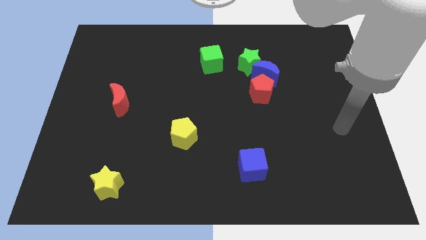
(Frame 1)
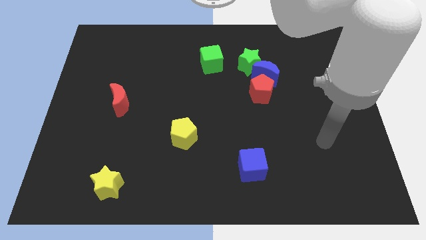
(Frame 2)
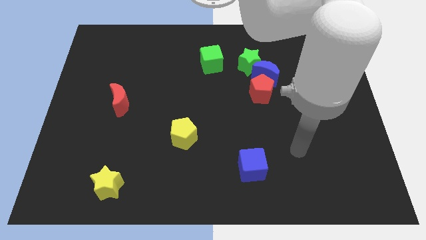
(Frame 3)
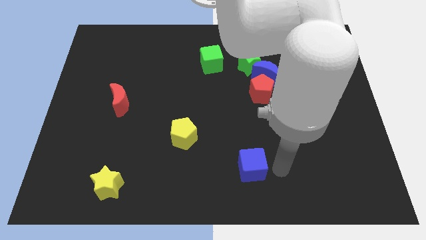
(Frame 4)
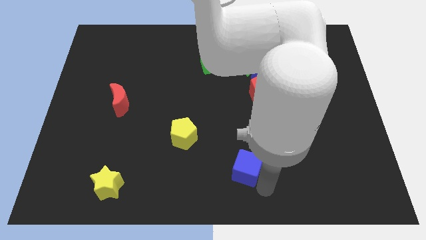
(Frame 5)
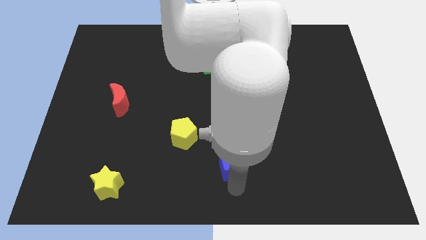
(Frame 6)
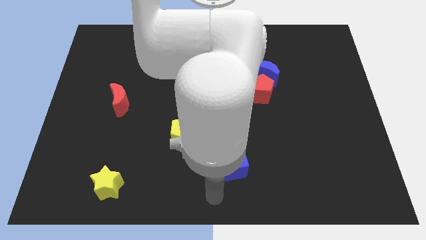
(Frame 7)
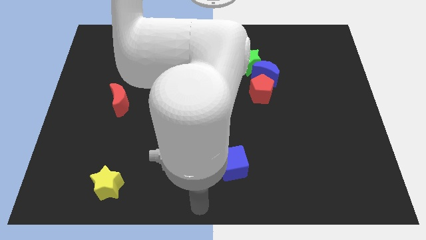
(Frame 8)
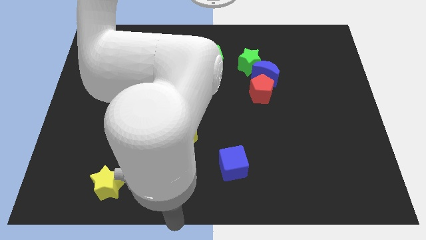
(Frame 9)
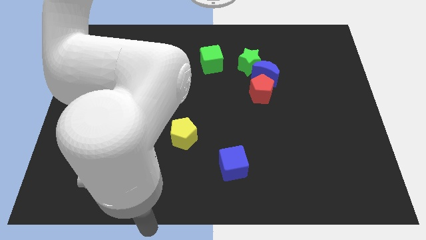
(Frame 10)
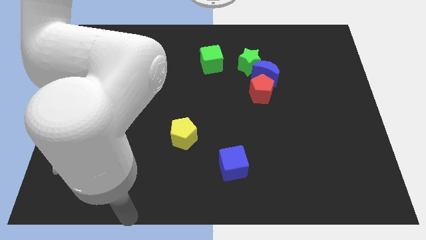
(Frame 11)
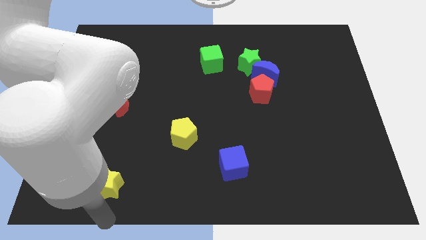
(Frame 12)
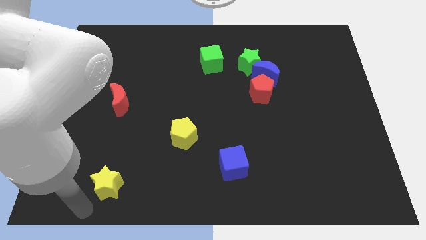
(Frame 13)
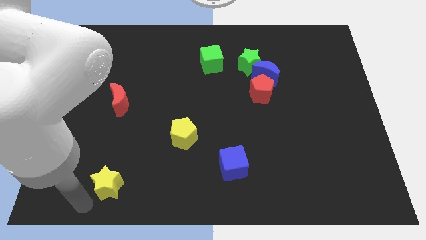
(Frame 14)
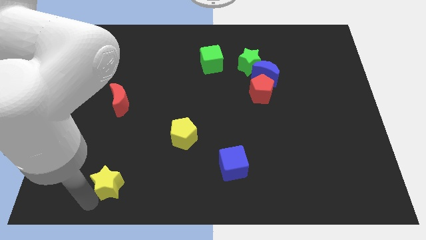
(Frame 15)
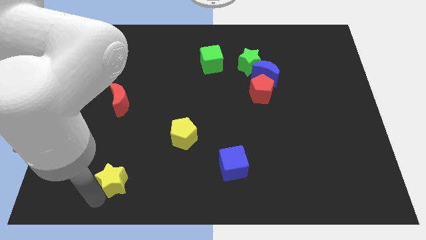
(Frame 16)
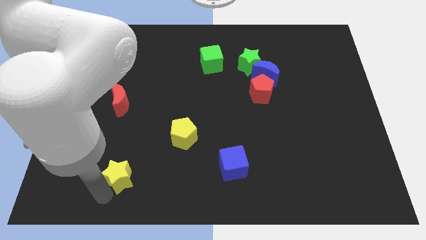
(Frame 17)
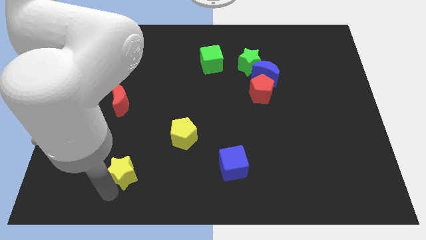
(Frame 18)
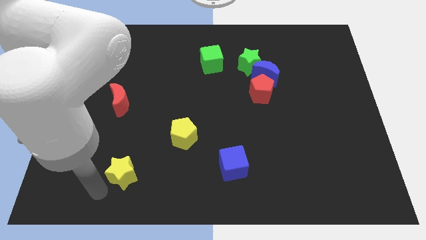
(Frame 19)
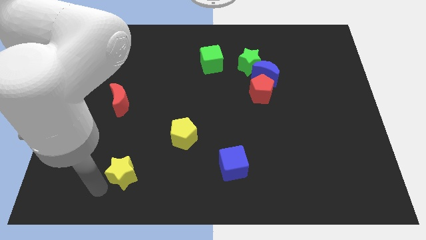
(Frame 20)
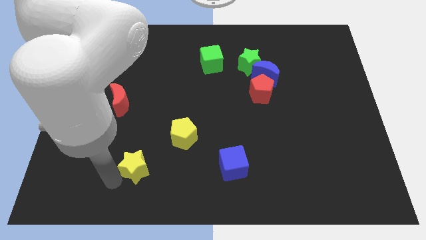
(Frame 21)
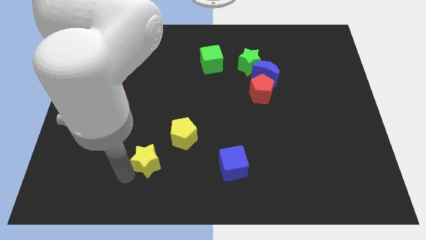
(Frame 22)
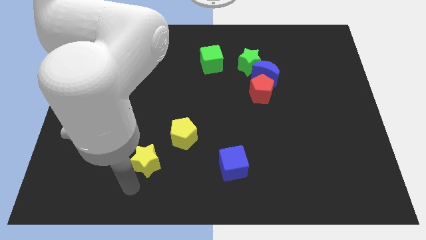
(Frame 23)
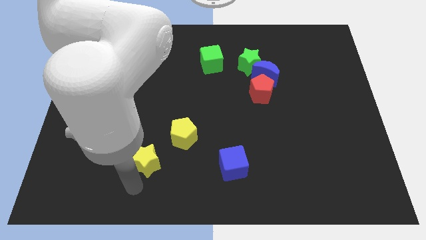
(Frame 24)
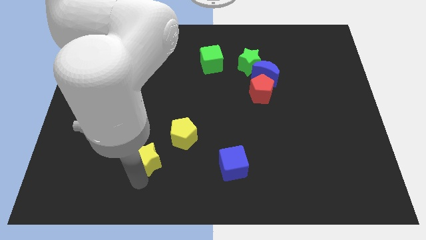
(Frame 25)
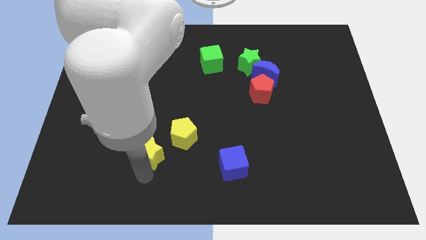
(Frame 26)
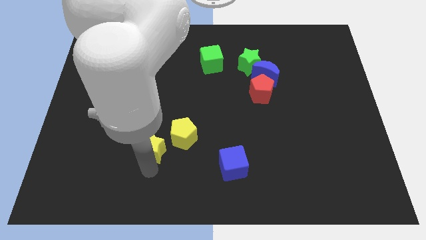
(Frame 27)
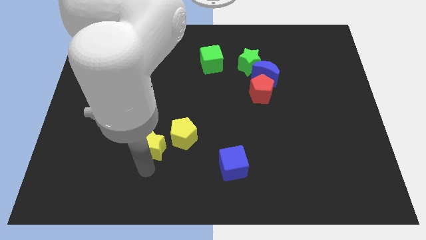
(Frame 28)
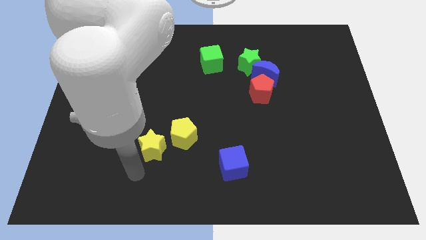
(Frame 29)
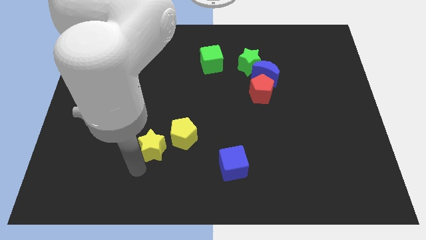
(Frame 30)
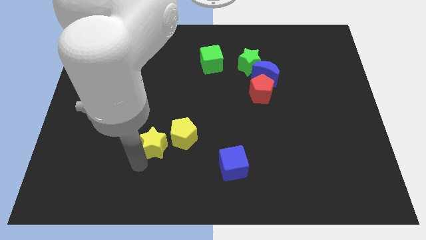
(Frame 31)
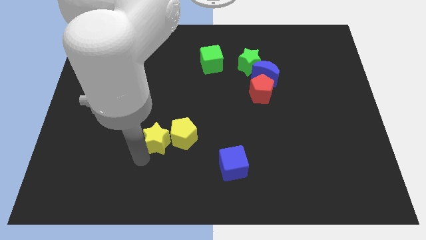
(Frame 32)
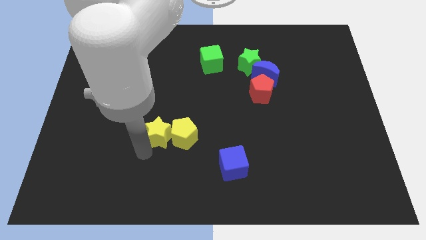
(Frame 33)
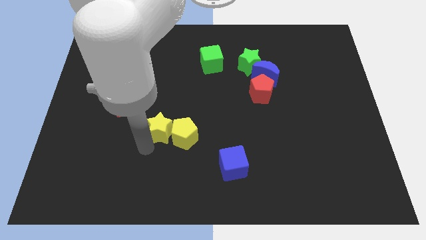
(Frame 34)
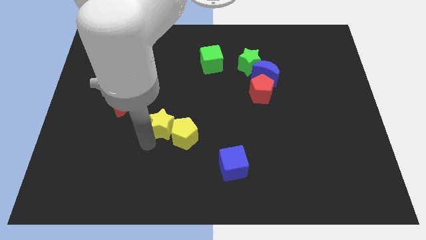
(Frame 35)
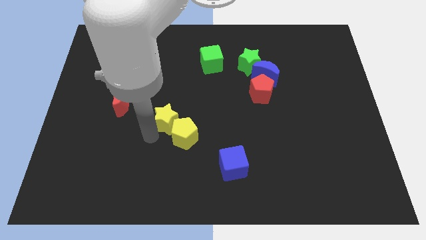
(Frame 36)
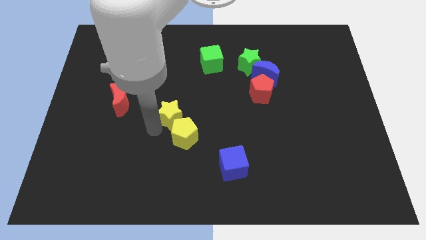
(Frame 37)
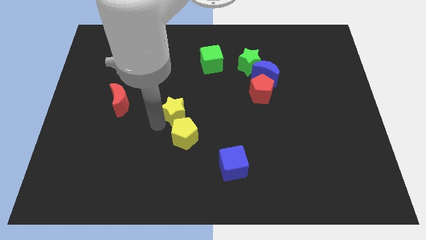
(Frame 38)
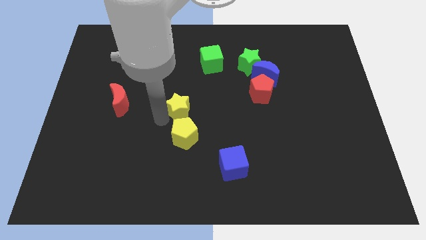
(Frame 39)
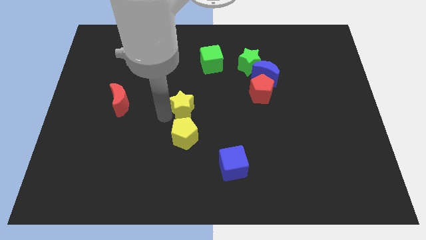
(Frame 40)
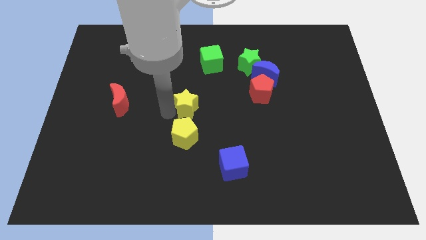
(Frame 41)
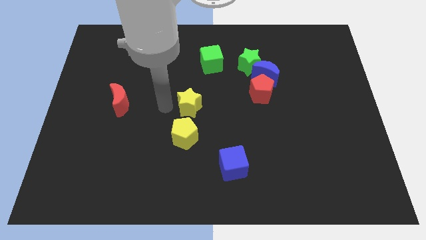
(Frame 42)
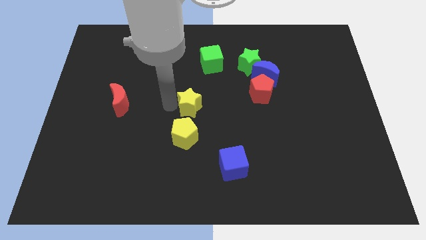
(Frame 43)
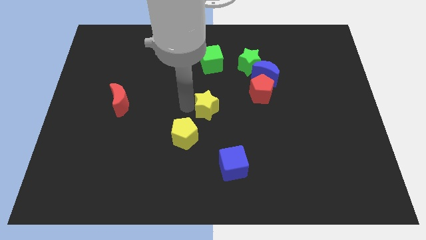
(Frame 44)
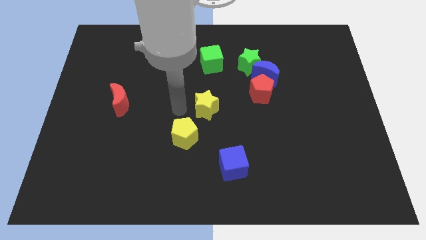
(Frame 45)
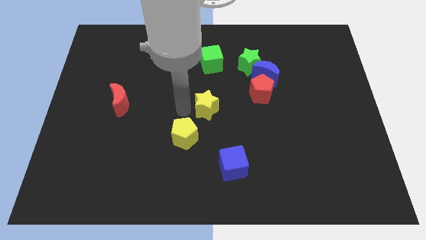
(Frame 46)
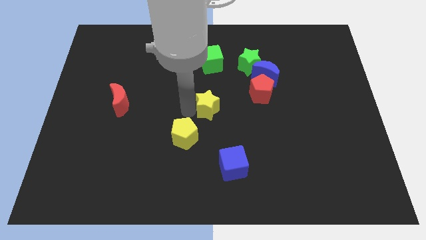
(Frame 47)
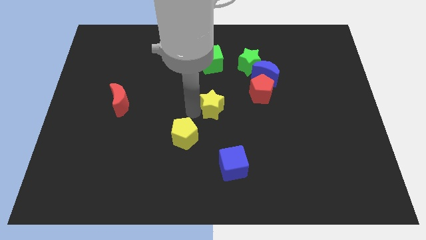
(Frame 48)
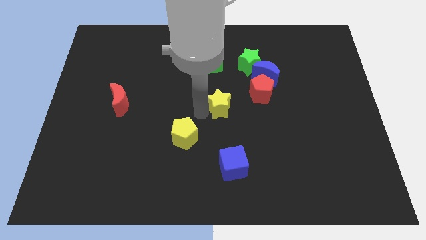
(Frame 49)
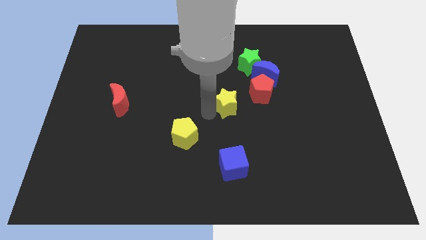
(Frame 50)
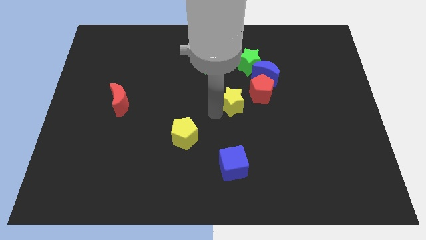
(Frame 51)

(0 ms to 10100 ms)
push the yellow star to the bottom left of the blue moon

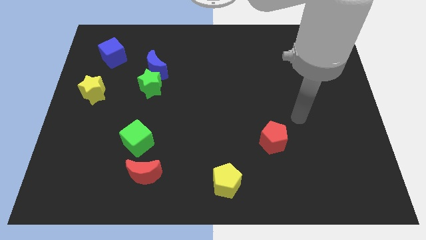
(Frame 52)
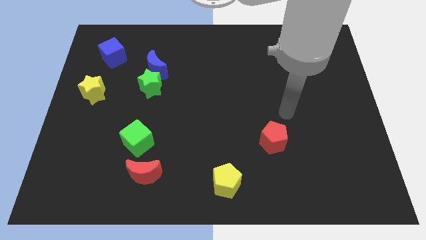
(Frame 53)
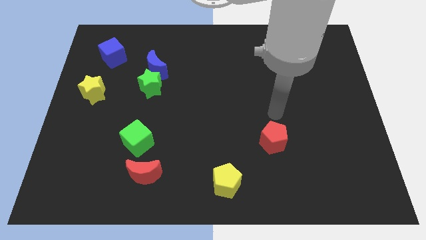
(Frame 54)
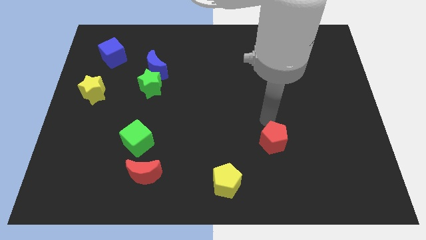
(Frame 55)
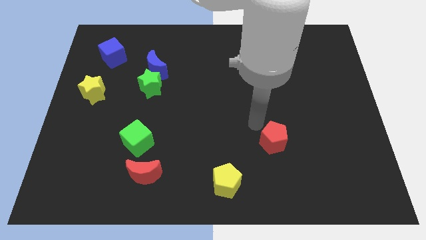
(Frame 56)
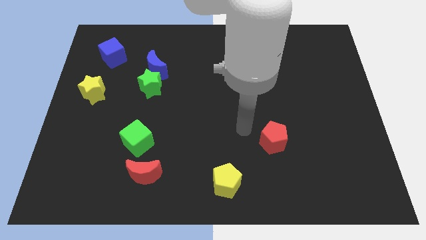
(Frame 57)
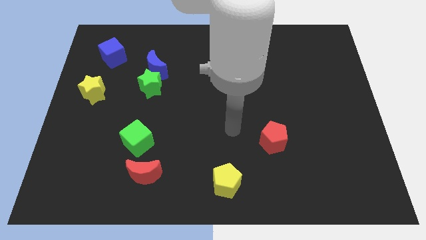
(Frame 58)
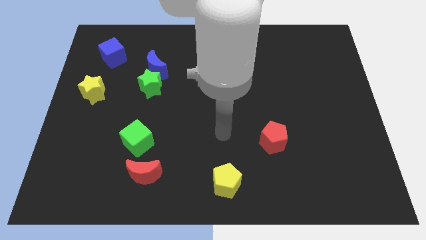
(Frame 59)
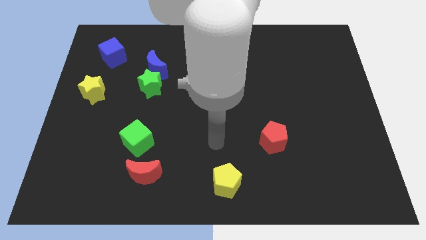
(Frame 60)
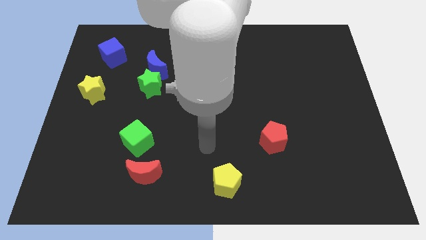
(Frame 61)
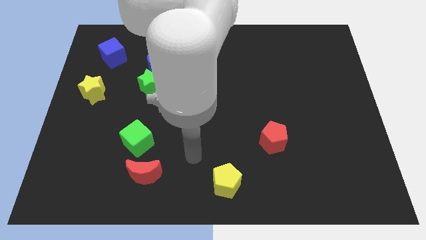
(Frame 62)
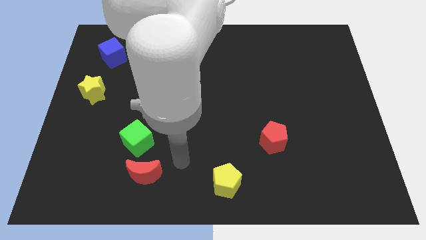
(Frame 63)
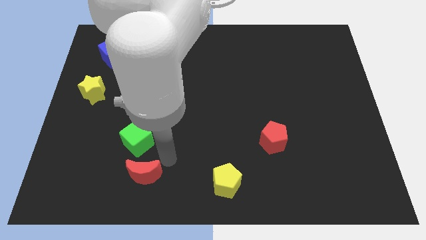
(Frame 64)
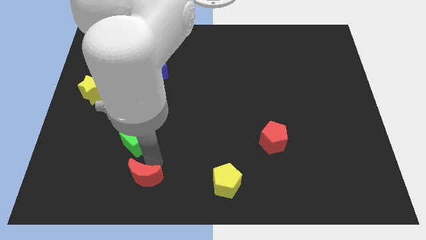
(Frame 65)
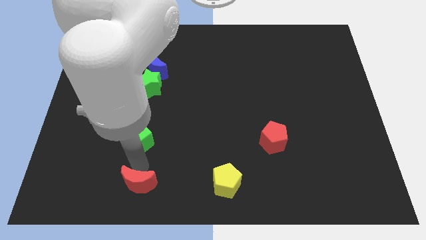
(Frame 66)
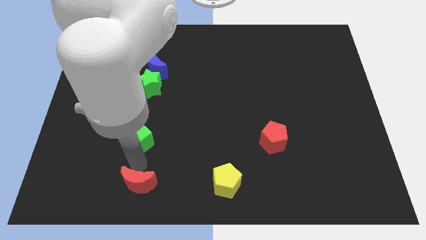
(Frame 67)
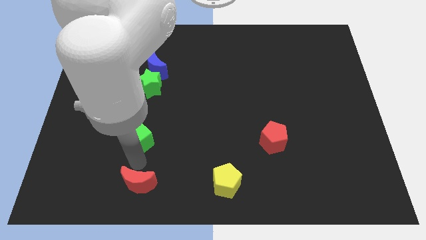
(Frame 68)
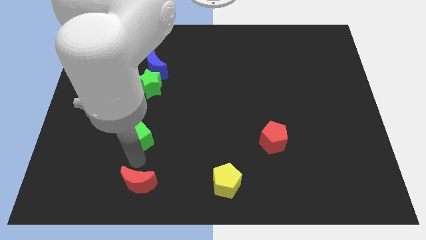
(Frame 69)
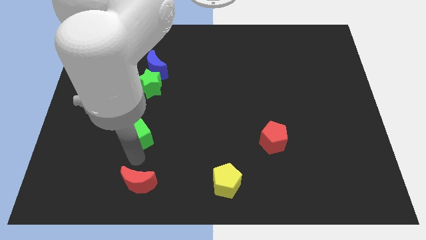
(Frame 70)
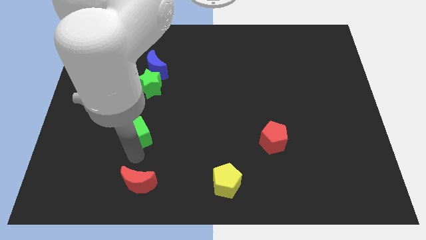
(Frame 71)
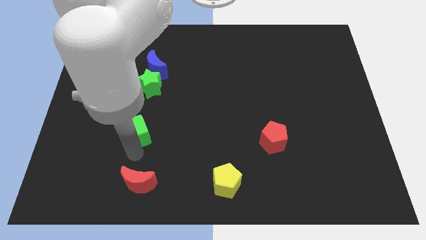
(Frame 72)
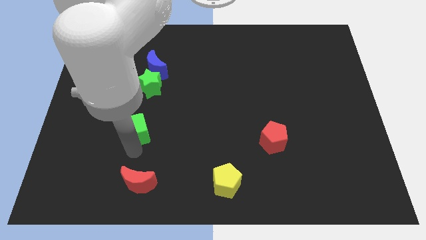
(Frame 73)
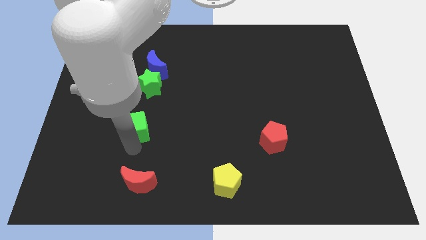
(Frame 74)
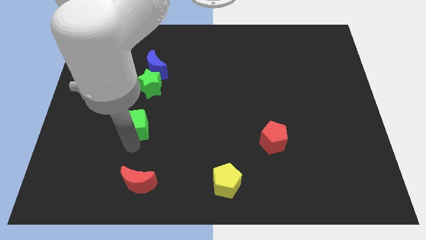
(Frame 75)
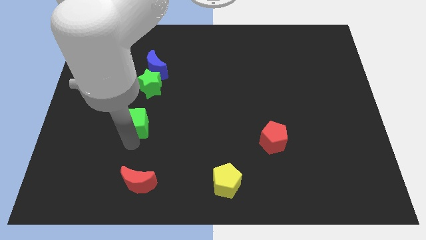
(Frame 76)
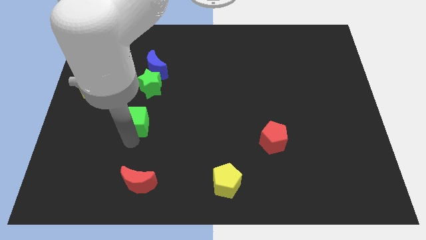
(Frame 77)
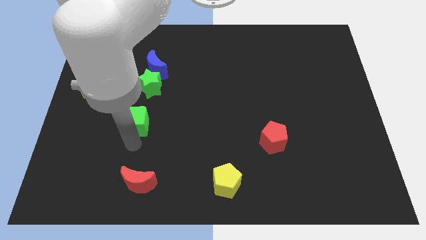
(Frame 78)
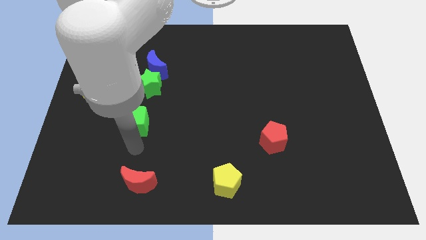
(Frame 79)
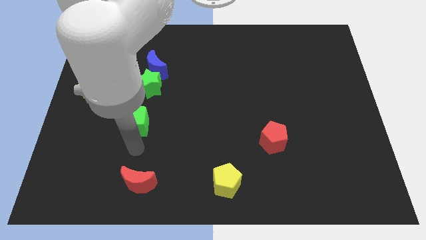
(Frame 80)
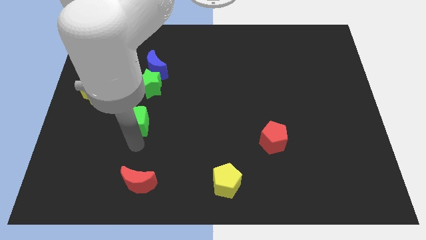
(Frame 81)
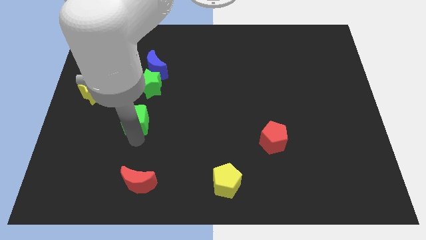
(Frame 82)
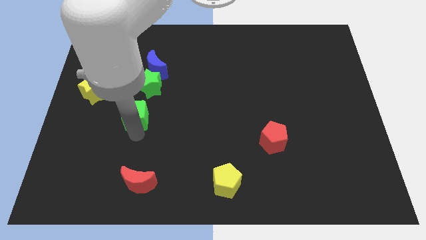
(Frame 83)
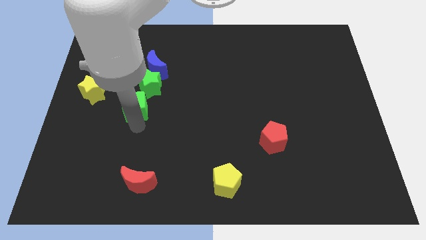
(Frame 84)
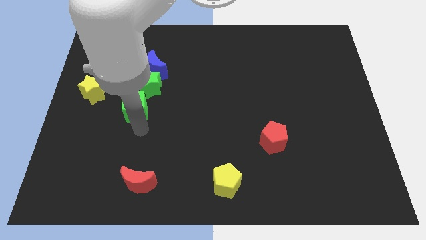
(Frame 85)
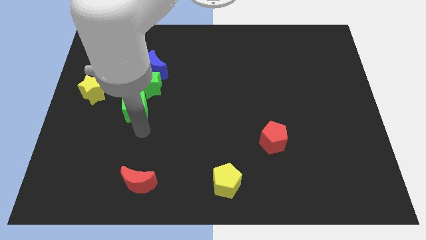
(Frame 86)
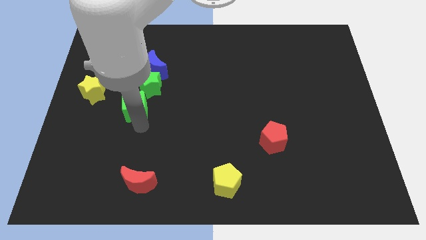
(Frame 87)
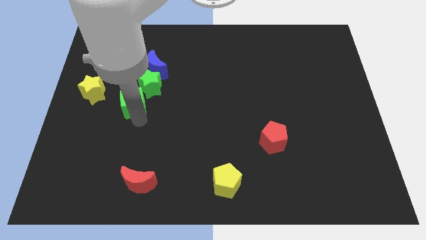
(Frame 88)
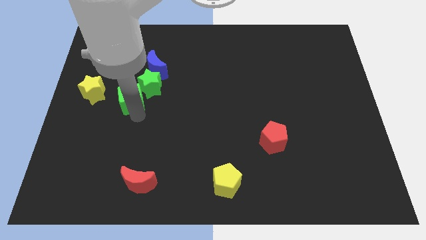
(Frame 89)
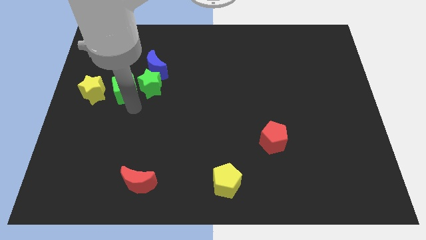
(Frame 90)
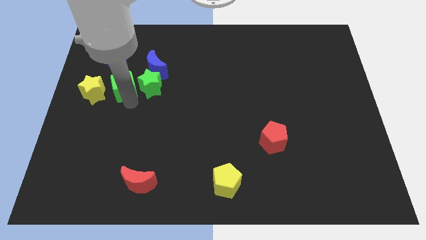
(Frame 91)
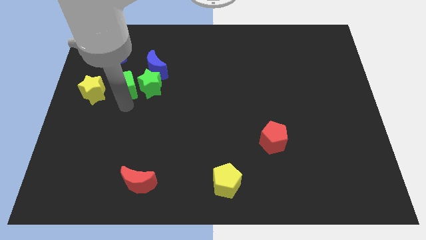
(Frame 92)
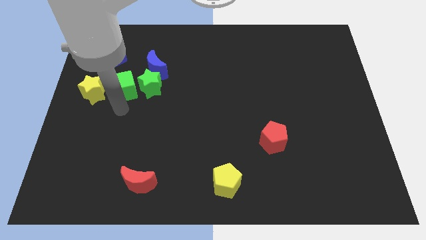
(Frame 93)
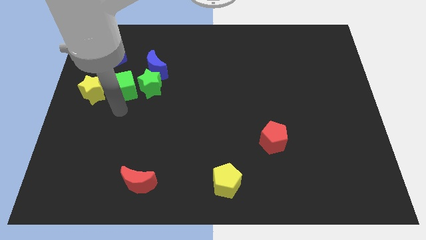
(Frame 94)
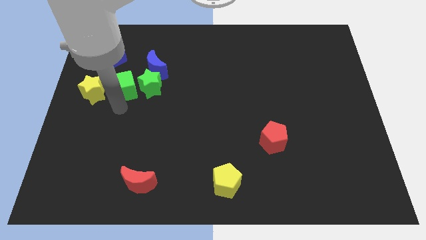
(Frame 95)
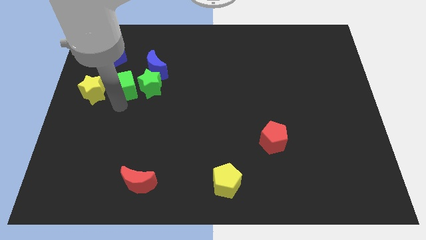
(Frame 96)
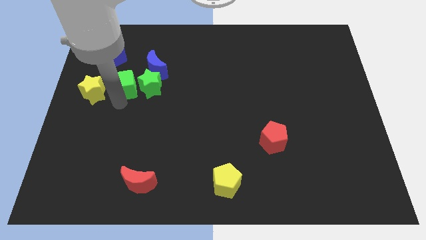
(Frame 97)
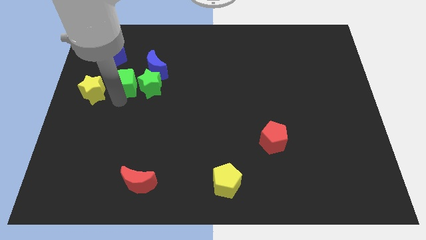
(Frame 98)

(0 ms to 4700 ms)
put the green cube diagonally down and to the right of the blue cube
